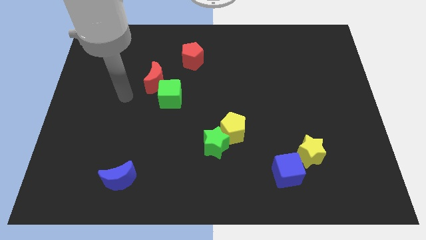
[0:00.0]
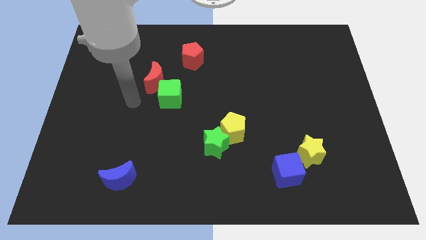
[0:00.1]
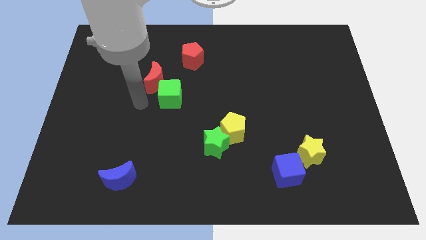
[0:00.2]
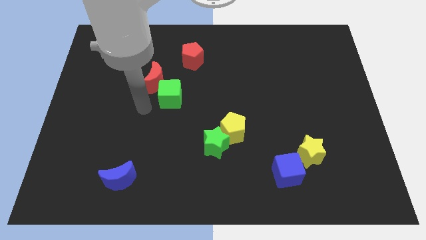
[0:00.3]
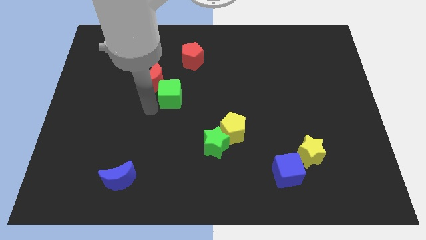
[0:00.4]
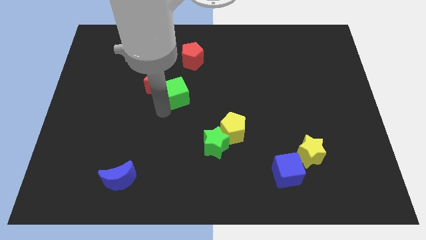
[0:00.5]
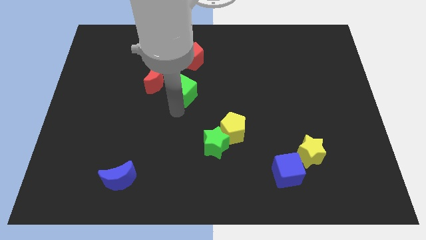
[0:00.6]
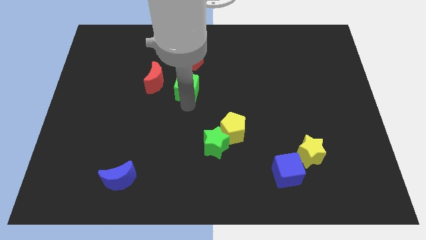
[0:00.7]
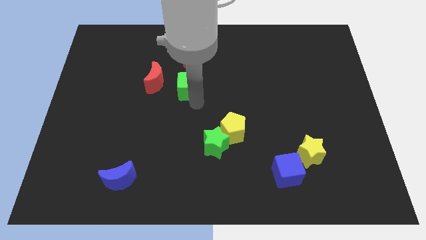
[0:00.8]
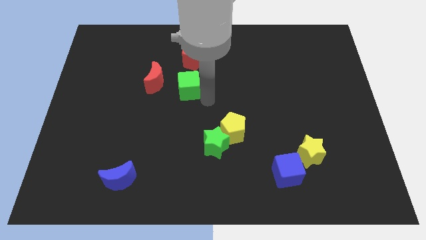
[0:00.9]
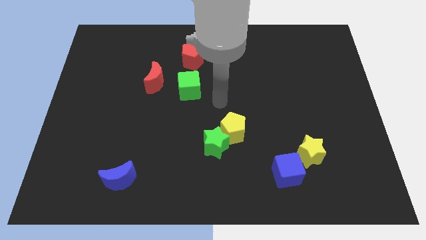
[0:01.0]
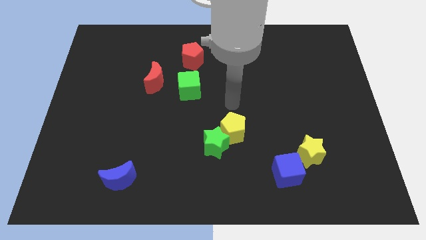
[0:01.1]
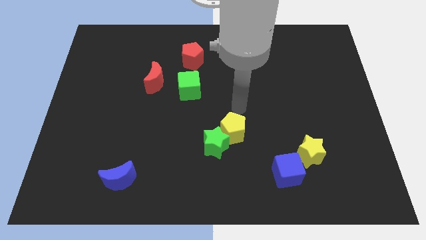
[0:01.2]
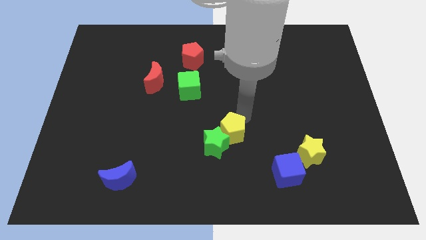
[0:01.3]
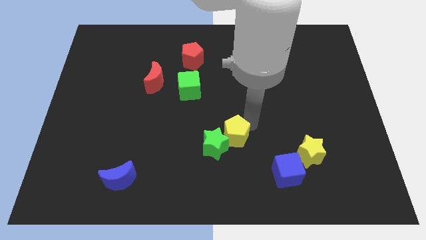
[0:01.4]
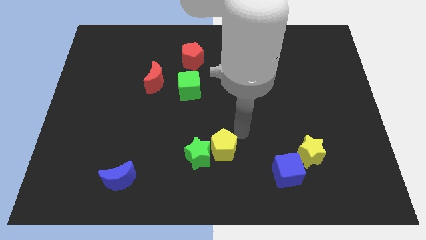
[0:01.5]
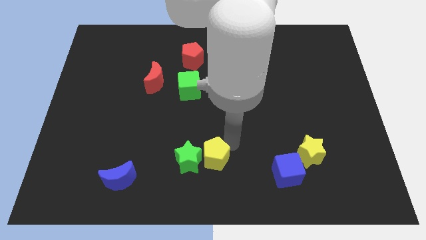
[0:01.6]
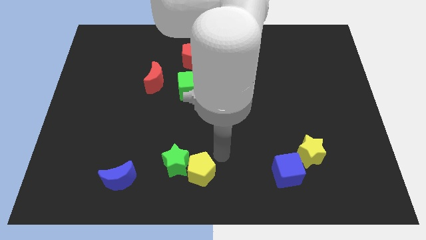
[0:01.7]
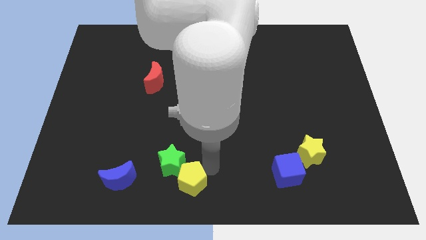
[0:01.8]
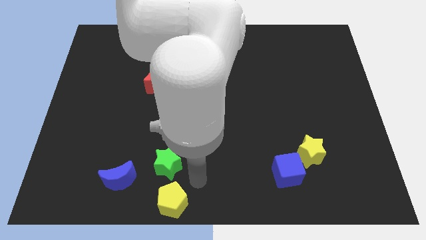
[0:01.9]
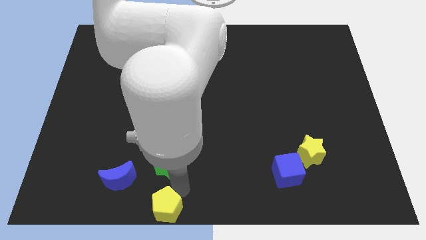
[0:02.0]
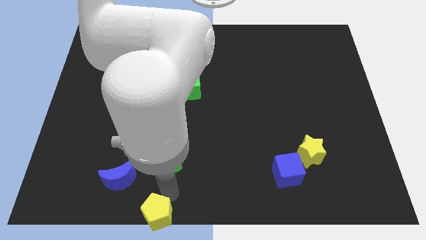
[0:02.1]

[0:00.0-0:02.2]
move the green star away from the yellow pentagon

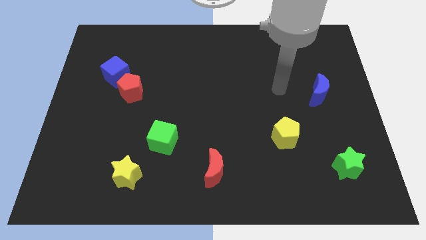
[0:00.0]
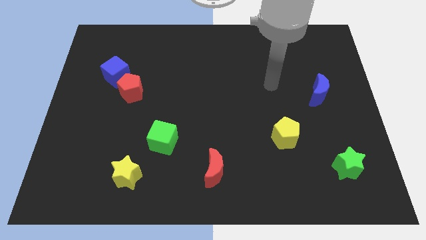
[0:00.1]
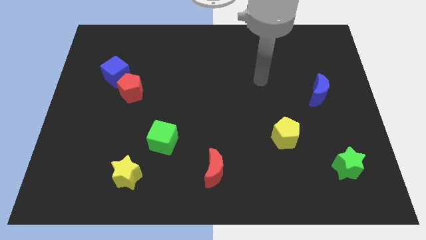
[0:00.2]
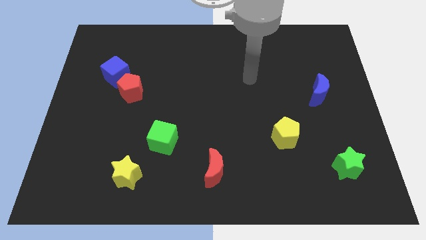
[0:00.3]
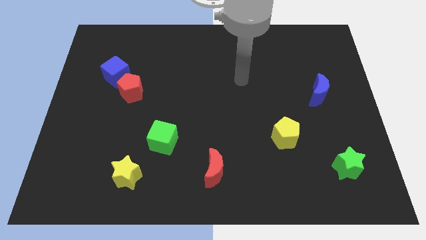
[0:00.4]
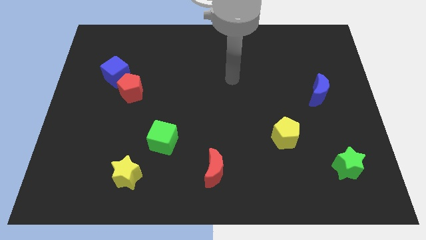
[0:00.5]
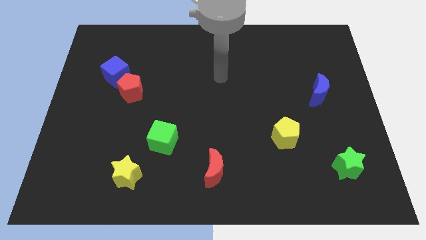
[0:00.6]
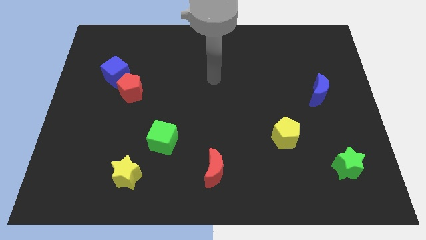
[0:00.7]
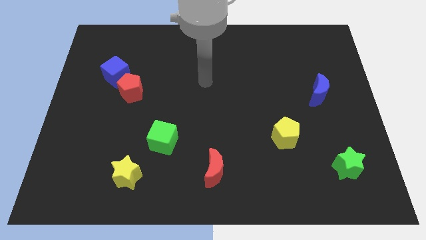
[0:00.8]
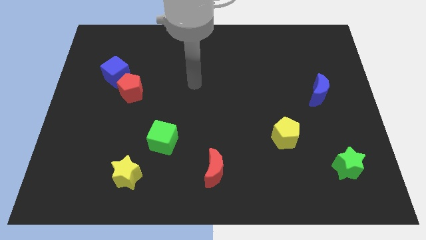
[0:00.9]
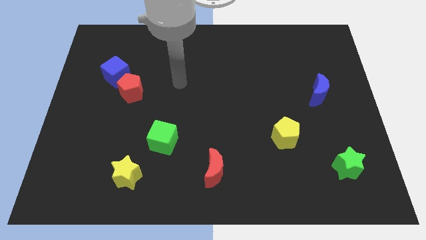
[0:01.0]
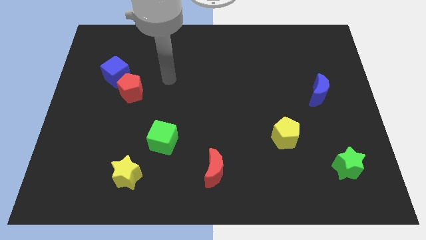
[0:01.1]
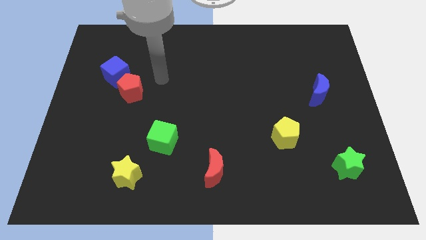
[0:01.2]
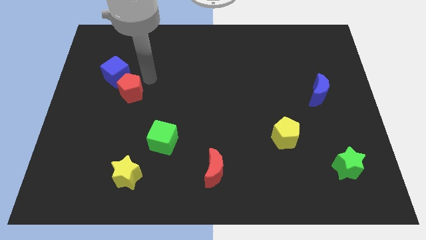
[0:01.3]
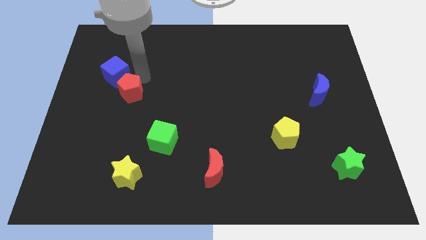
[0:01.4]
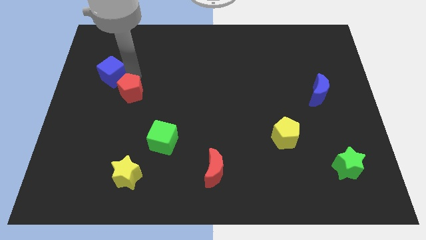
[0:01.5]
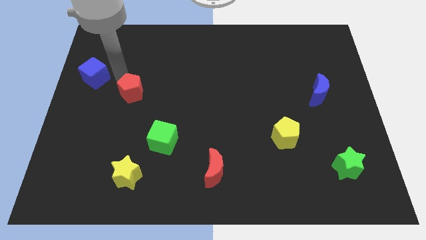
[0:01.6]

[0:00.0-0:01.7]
separate the red pentagon from the blue cube

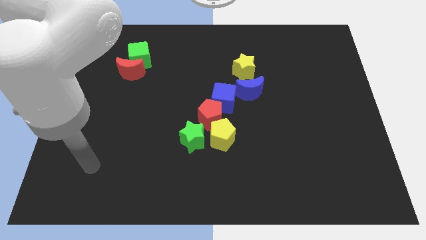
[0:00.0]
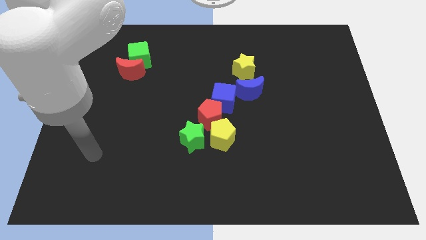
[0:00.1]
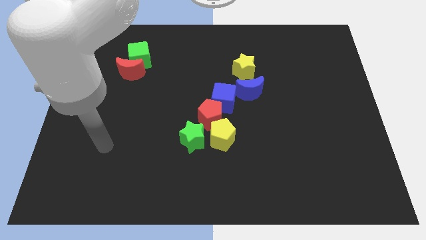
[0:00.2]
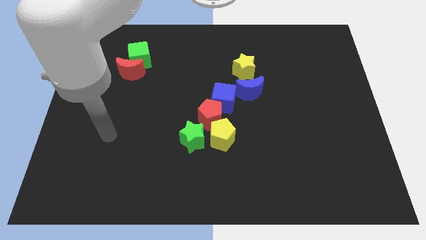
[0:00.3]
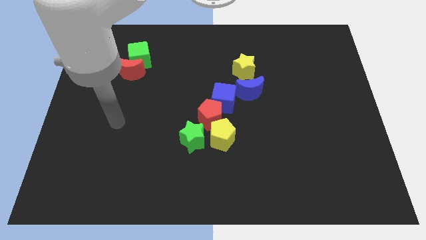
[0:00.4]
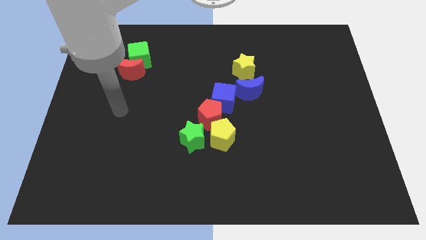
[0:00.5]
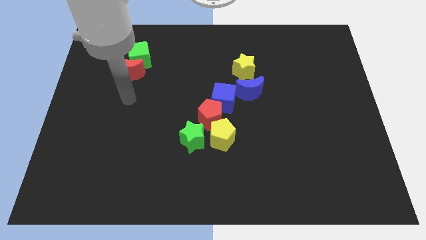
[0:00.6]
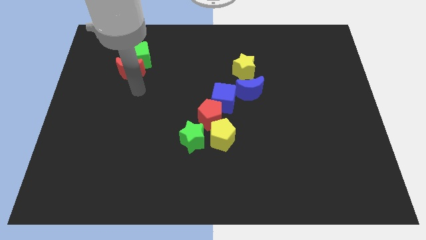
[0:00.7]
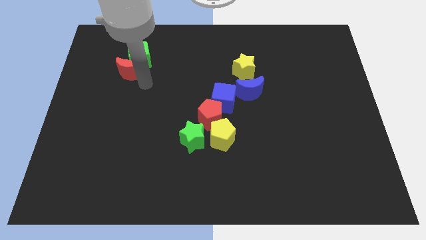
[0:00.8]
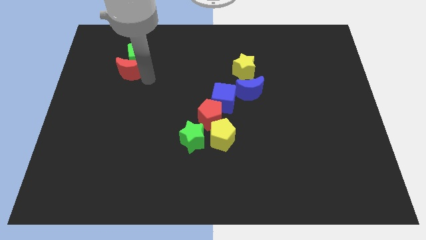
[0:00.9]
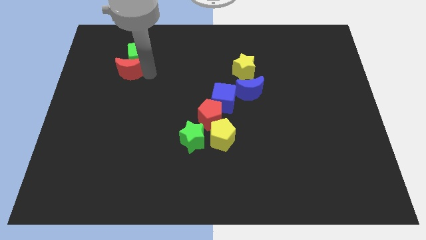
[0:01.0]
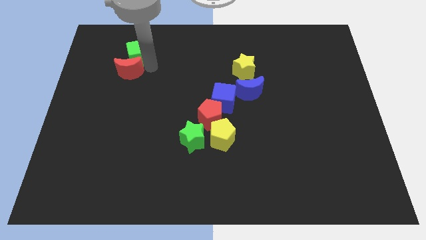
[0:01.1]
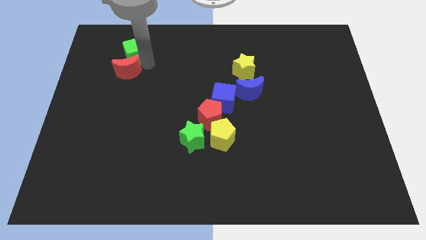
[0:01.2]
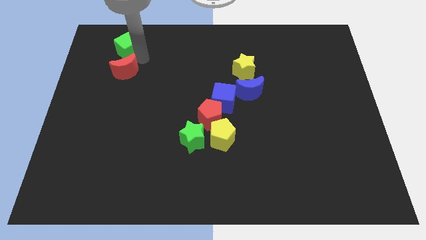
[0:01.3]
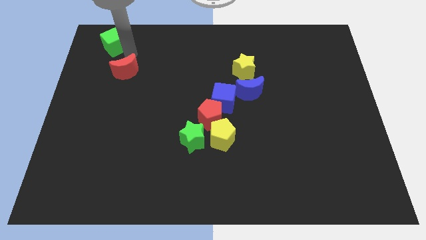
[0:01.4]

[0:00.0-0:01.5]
pull the red moon apart from the green cube

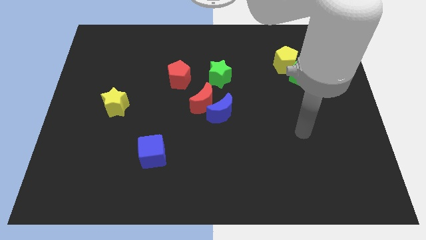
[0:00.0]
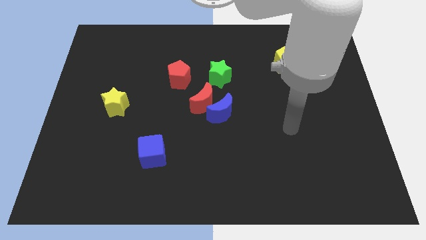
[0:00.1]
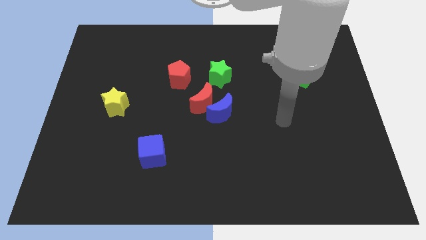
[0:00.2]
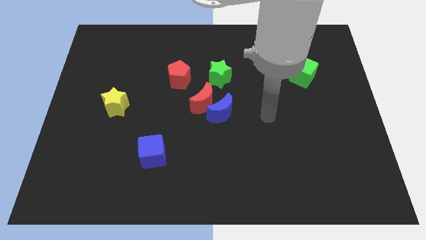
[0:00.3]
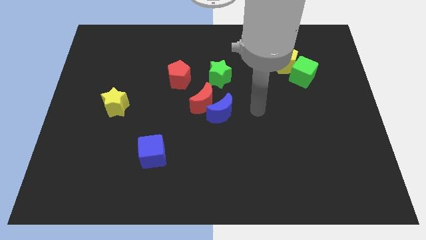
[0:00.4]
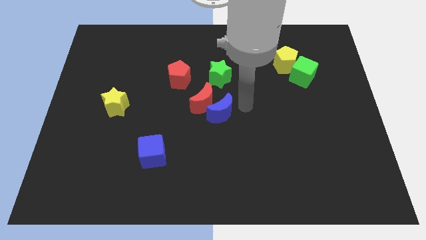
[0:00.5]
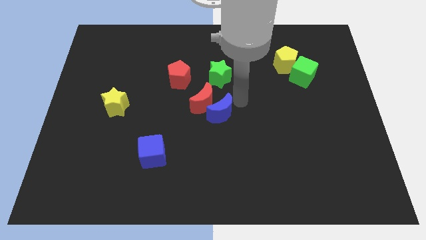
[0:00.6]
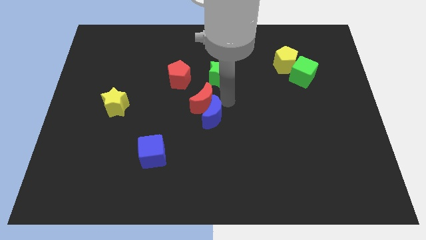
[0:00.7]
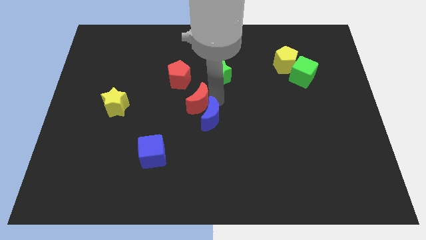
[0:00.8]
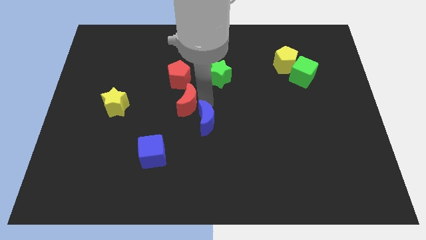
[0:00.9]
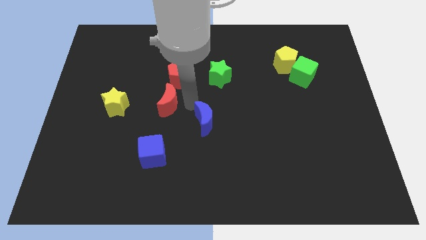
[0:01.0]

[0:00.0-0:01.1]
move the blue moon away from the red moon

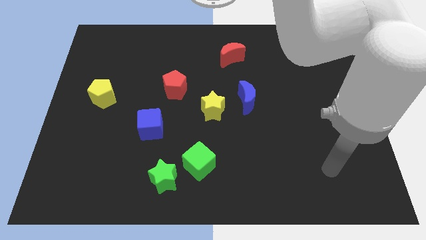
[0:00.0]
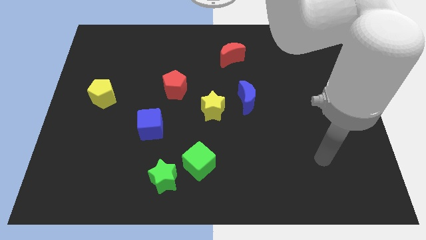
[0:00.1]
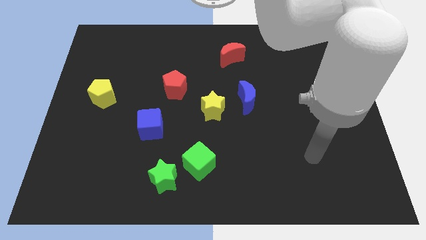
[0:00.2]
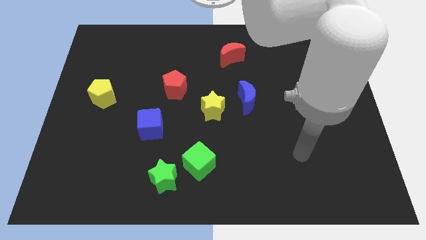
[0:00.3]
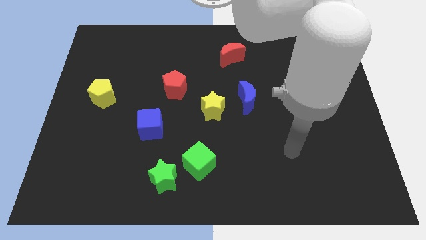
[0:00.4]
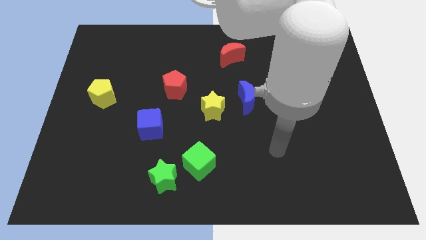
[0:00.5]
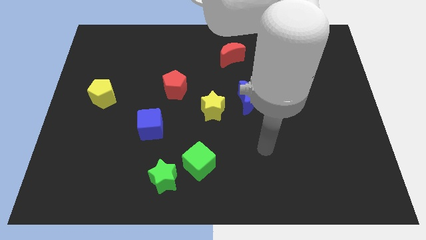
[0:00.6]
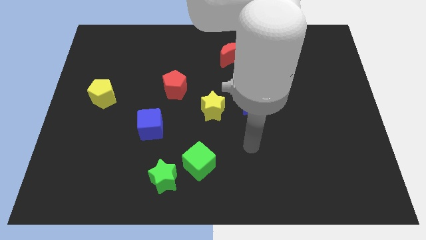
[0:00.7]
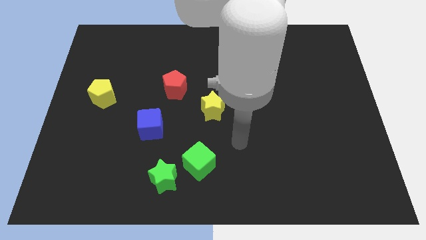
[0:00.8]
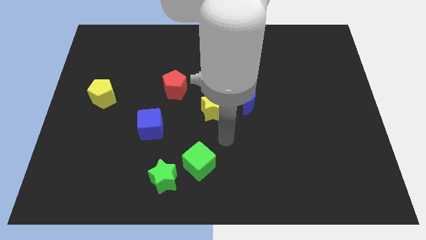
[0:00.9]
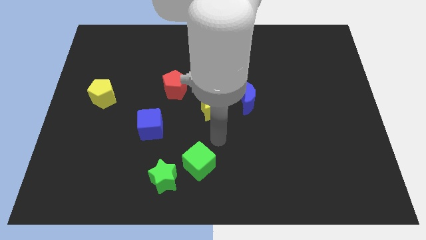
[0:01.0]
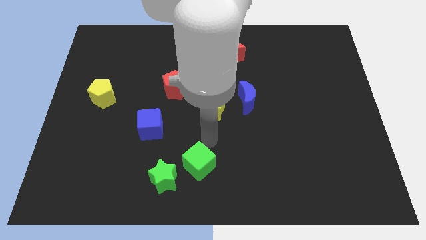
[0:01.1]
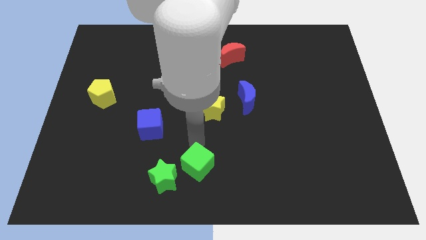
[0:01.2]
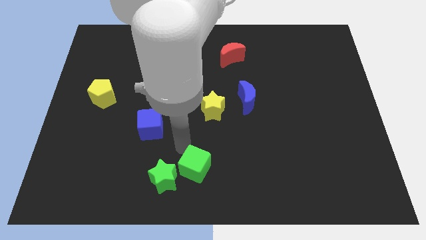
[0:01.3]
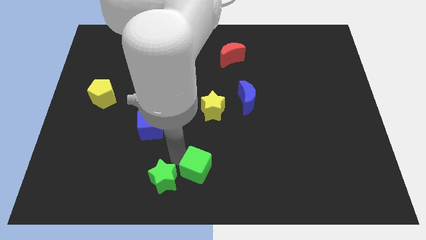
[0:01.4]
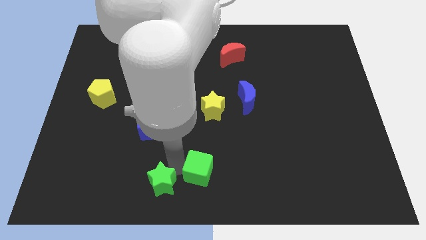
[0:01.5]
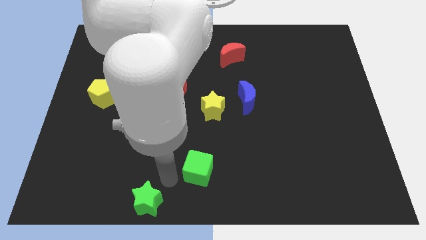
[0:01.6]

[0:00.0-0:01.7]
pull the green cube apart from the green star

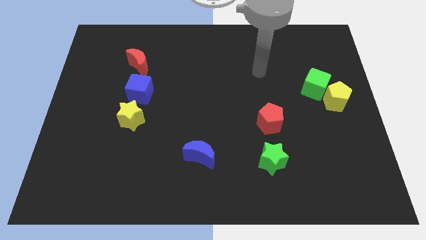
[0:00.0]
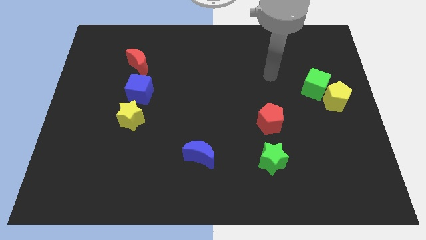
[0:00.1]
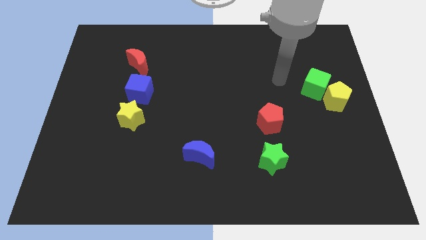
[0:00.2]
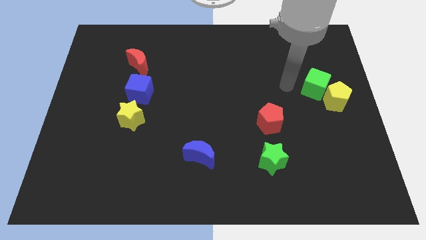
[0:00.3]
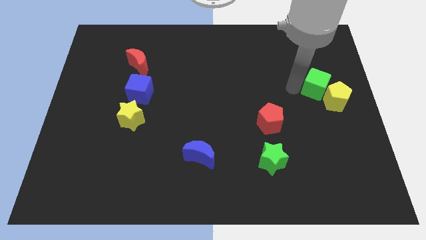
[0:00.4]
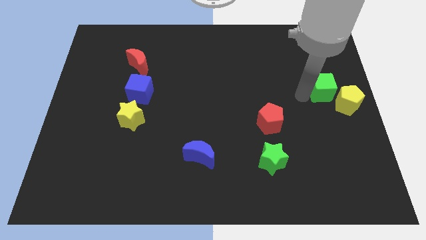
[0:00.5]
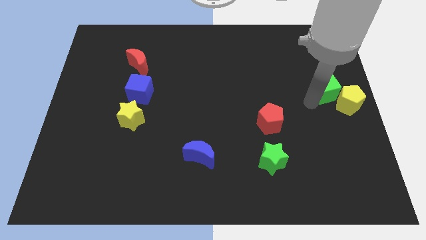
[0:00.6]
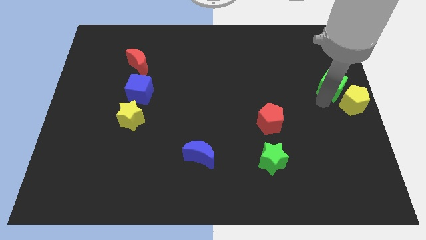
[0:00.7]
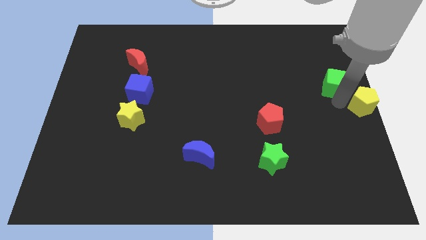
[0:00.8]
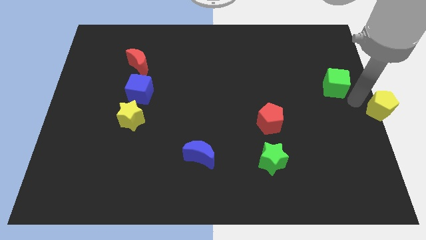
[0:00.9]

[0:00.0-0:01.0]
move the green cube away from the yellow pentagon
